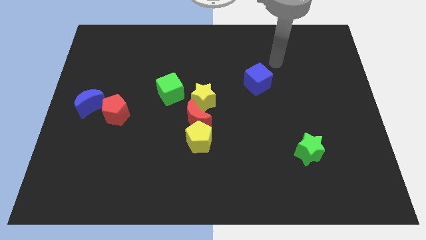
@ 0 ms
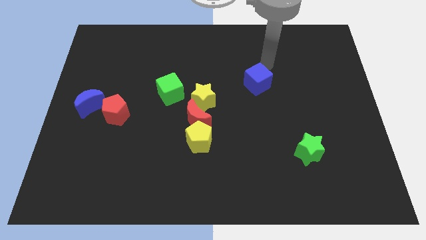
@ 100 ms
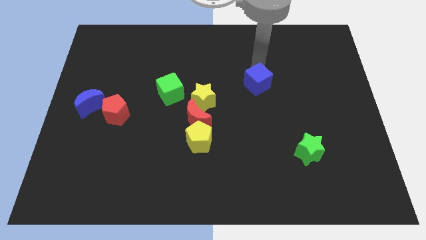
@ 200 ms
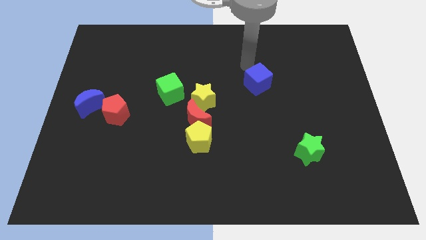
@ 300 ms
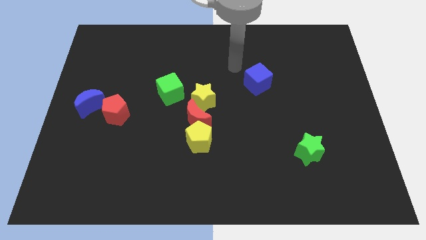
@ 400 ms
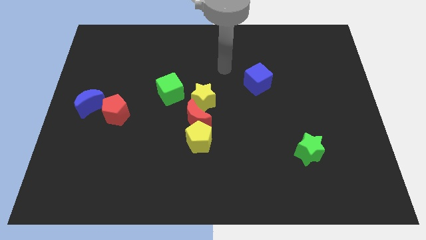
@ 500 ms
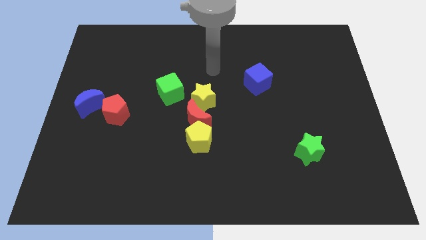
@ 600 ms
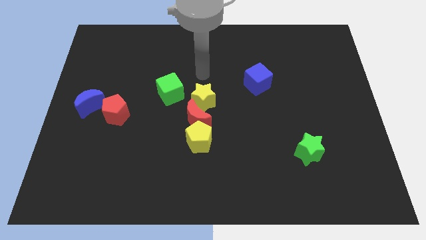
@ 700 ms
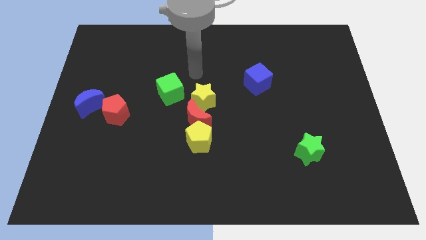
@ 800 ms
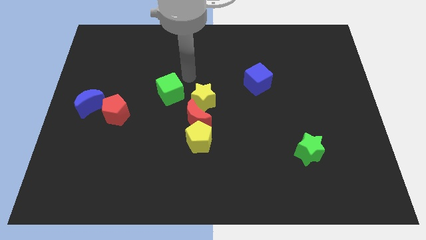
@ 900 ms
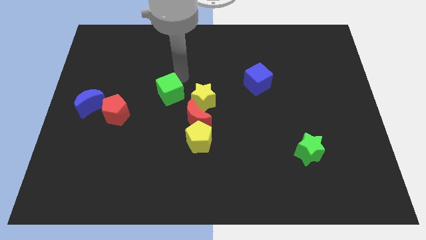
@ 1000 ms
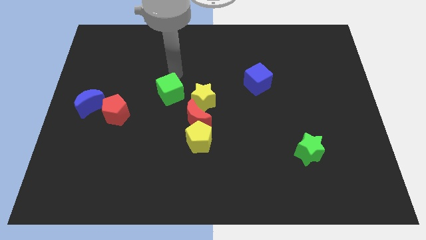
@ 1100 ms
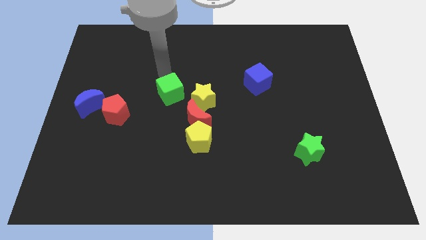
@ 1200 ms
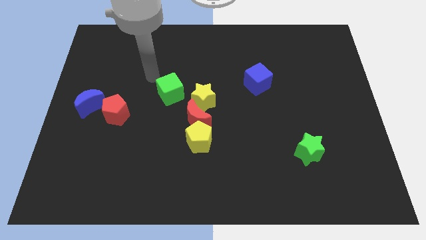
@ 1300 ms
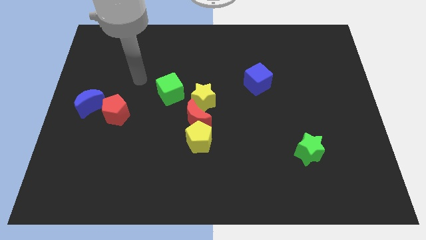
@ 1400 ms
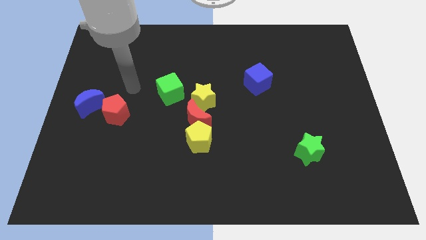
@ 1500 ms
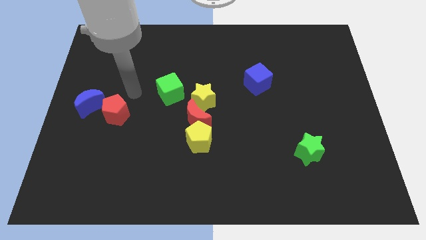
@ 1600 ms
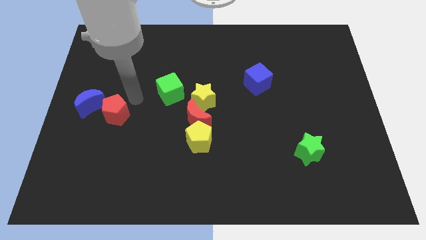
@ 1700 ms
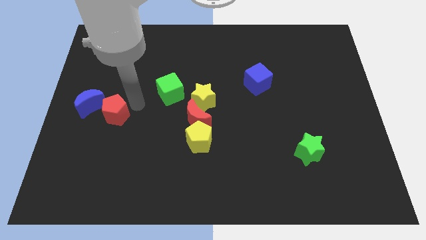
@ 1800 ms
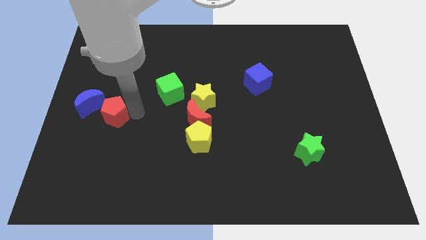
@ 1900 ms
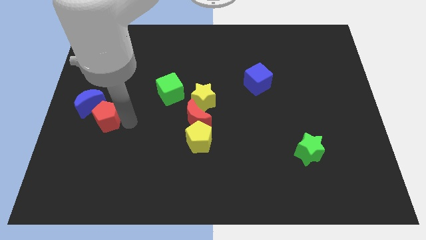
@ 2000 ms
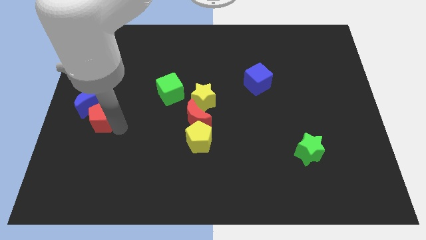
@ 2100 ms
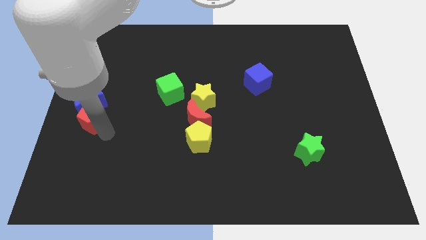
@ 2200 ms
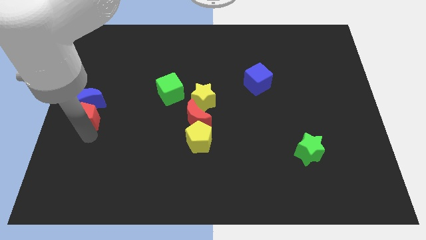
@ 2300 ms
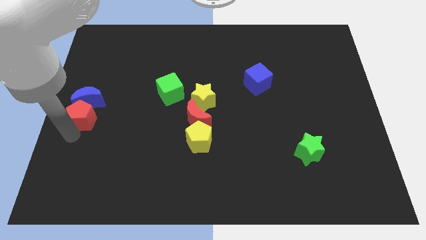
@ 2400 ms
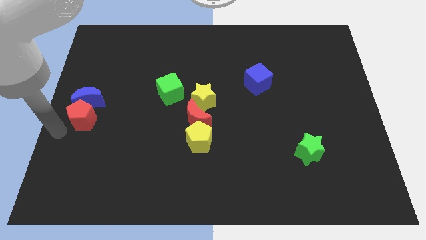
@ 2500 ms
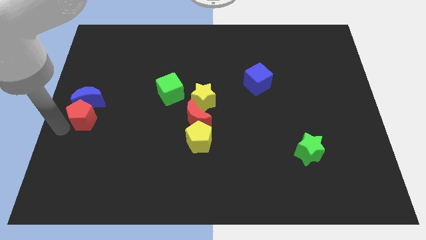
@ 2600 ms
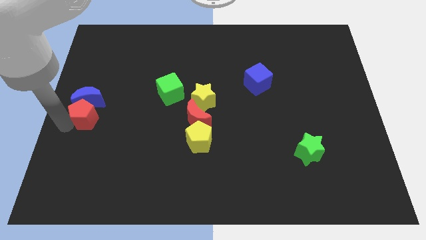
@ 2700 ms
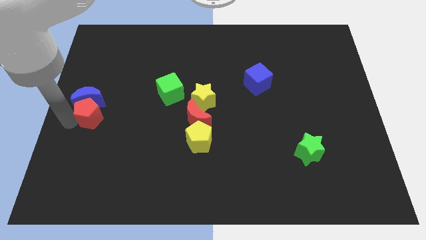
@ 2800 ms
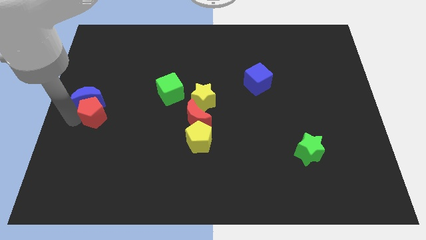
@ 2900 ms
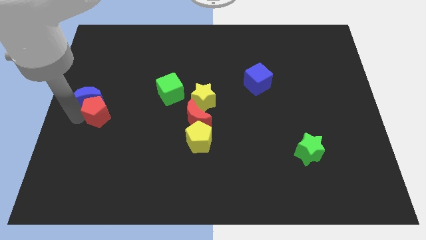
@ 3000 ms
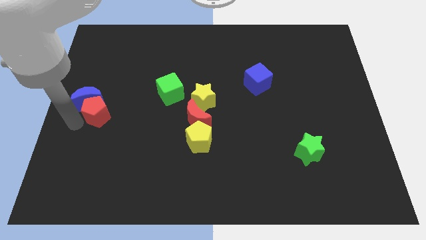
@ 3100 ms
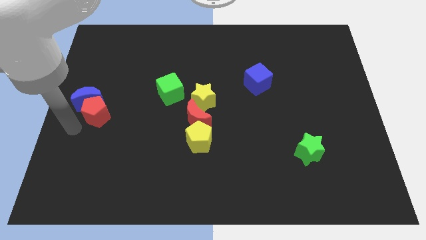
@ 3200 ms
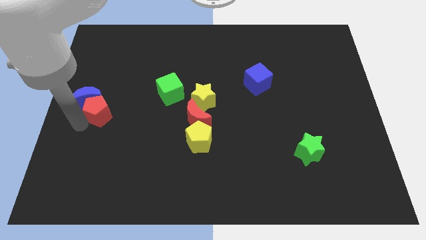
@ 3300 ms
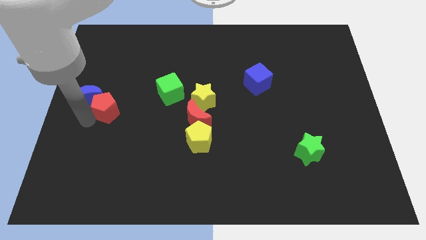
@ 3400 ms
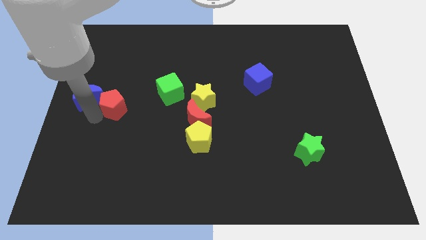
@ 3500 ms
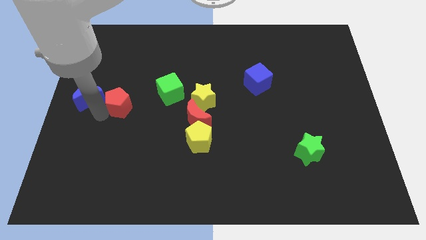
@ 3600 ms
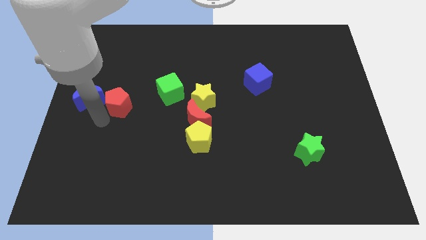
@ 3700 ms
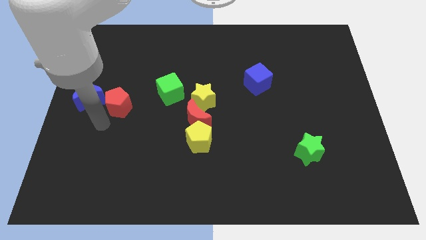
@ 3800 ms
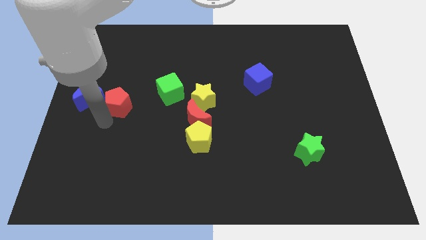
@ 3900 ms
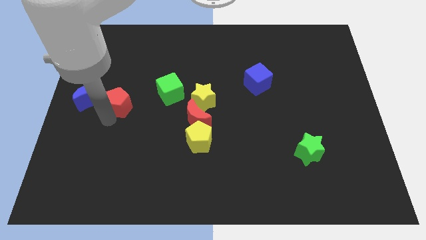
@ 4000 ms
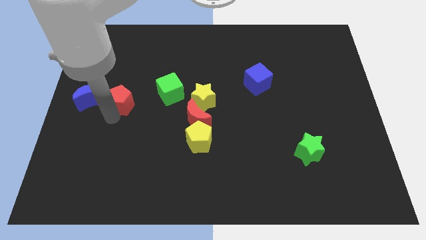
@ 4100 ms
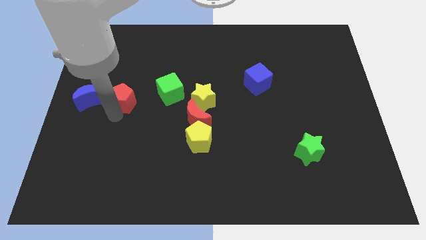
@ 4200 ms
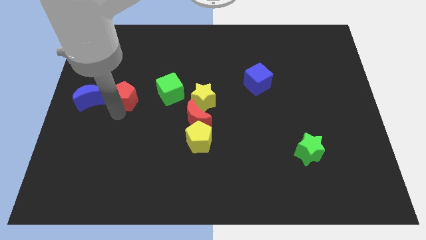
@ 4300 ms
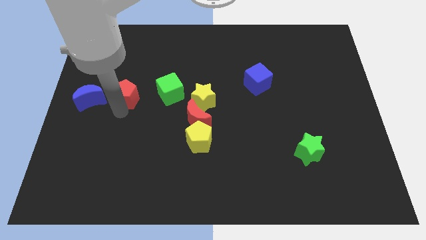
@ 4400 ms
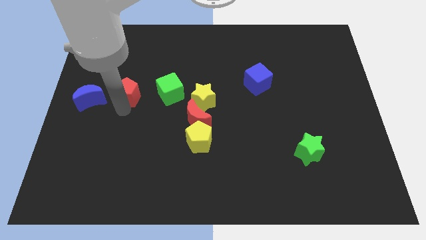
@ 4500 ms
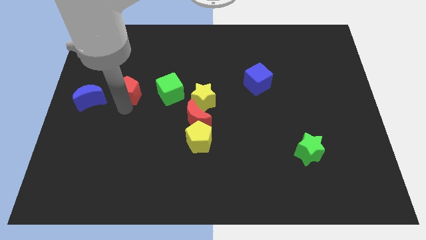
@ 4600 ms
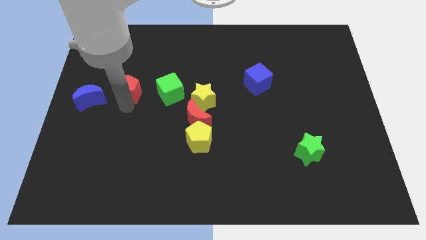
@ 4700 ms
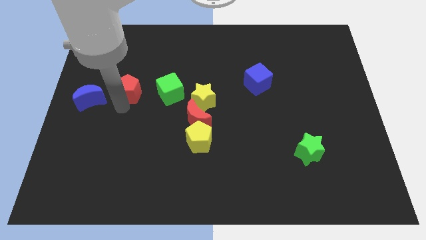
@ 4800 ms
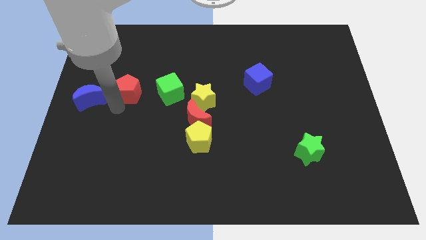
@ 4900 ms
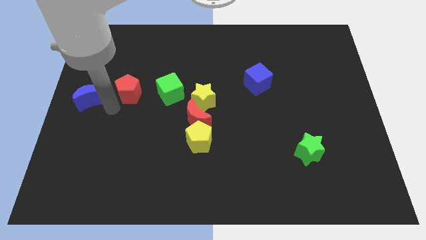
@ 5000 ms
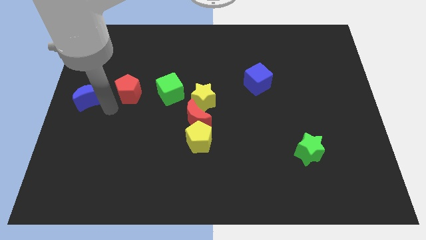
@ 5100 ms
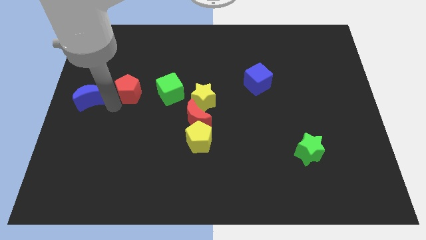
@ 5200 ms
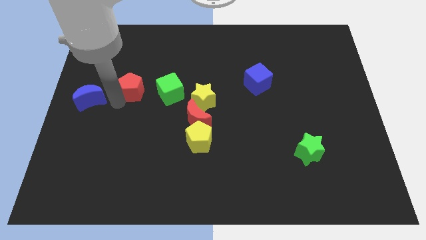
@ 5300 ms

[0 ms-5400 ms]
slide the red pentagon a little up and to the right diagonally

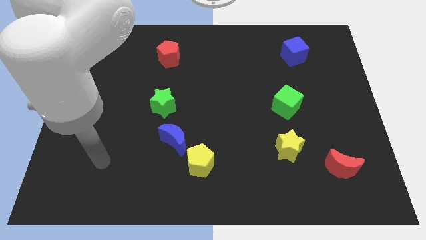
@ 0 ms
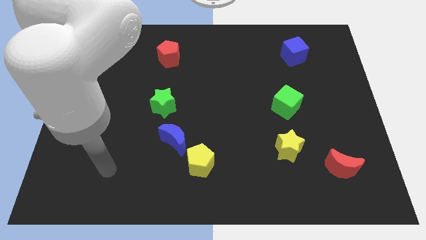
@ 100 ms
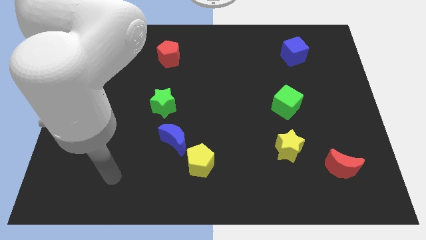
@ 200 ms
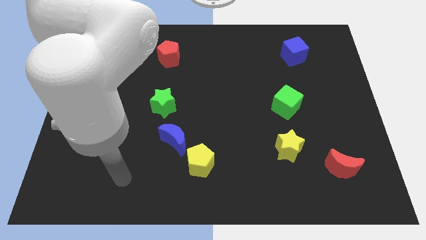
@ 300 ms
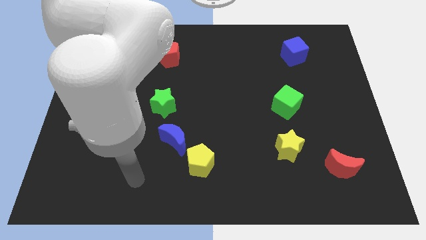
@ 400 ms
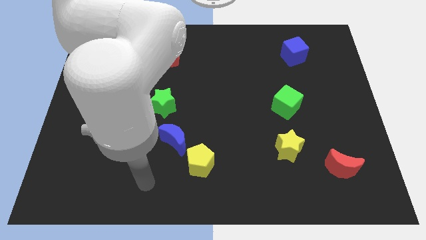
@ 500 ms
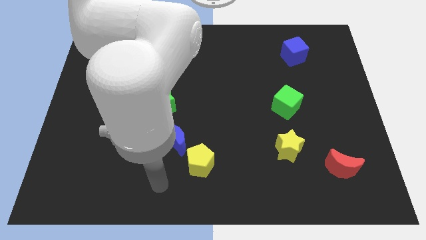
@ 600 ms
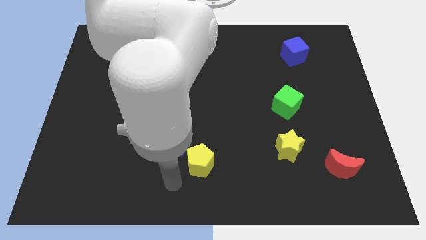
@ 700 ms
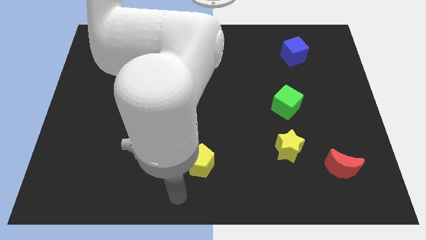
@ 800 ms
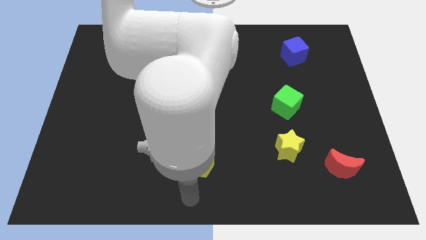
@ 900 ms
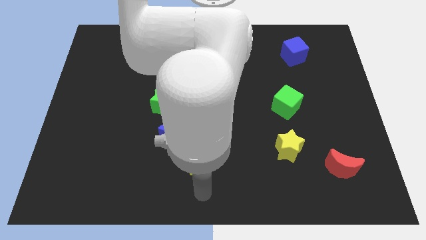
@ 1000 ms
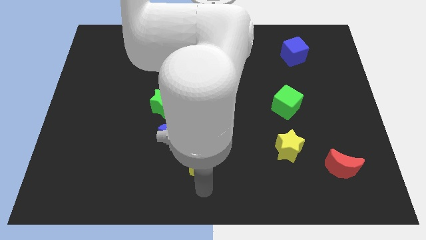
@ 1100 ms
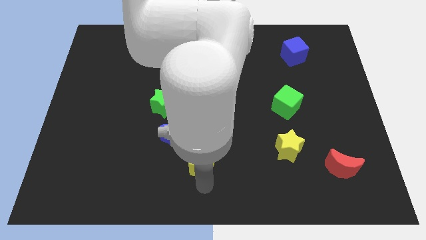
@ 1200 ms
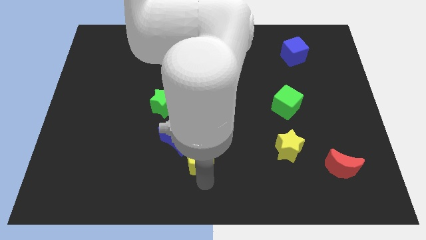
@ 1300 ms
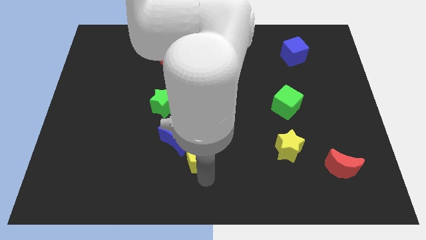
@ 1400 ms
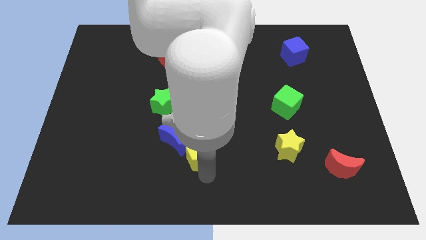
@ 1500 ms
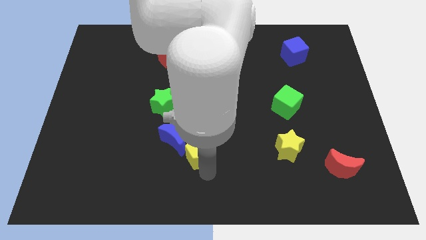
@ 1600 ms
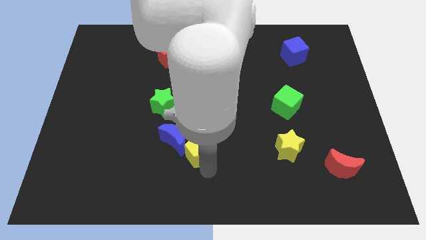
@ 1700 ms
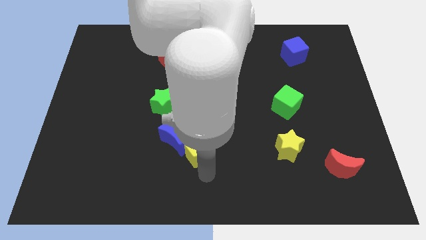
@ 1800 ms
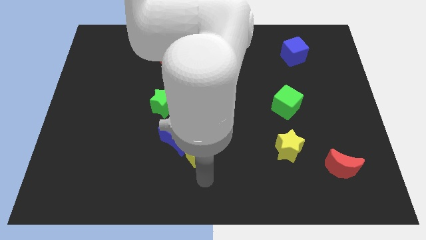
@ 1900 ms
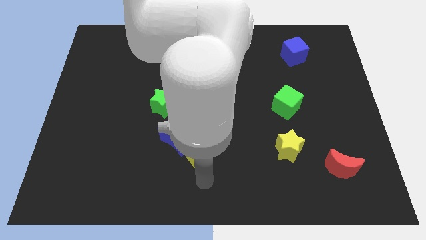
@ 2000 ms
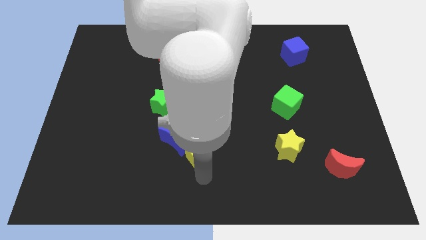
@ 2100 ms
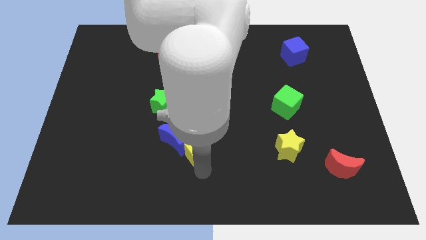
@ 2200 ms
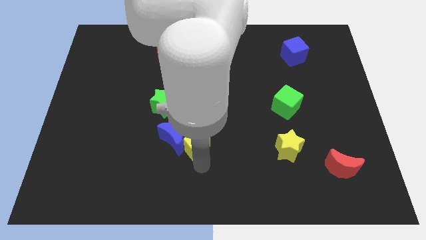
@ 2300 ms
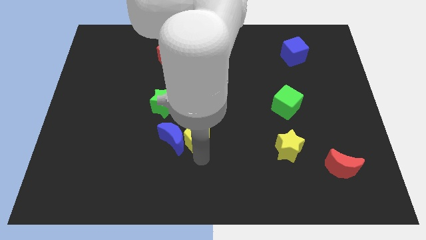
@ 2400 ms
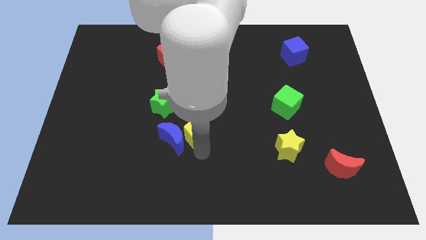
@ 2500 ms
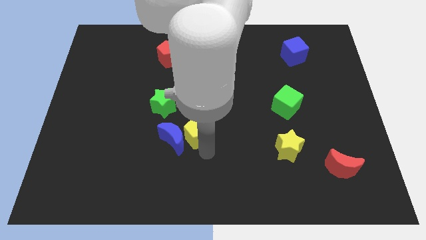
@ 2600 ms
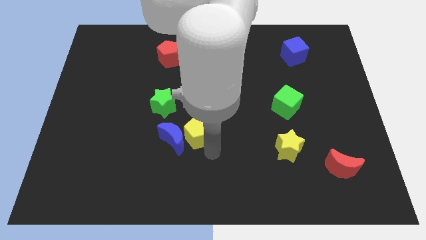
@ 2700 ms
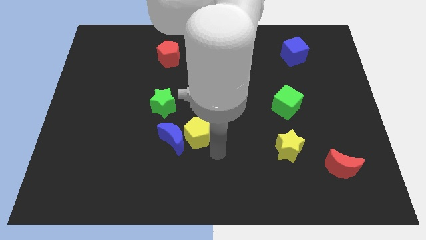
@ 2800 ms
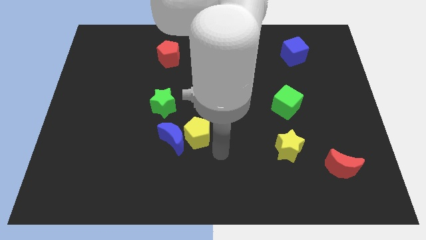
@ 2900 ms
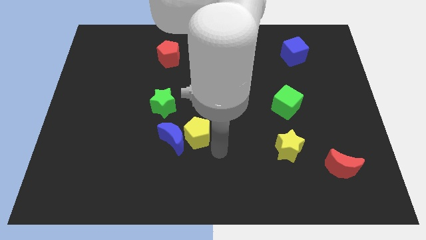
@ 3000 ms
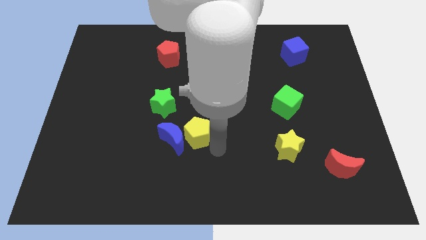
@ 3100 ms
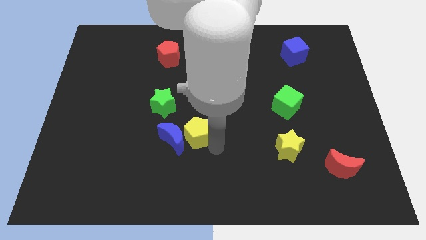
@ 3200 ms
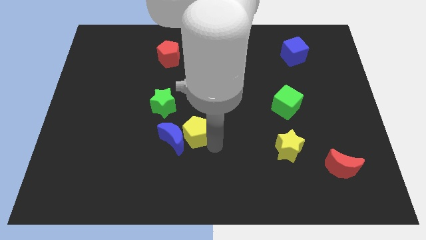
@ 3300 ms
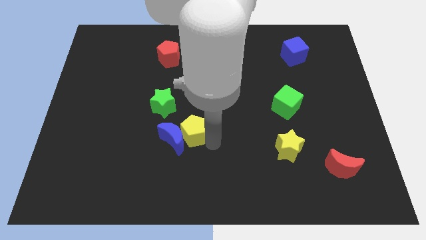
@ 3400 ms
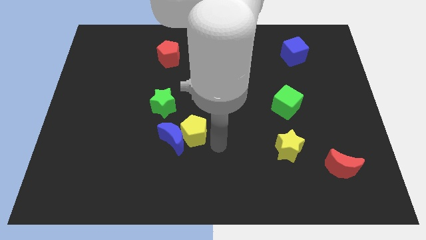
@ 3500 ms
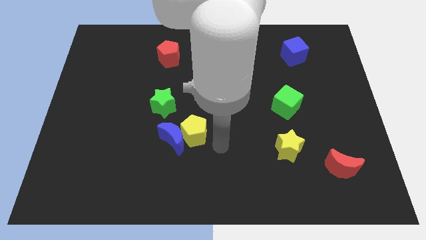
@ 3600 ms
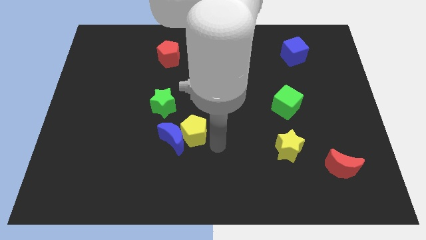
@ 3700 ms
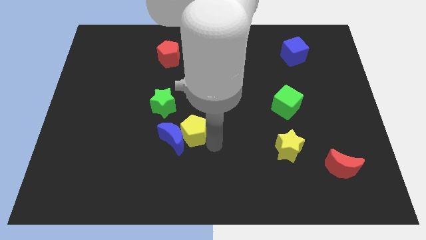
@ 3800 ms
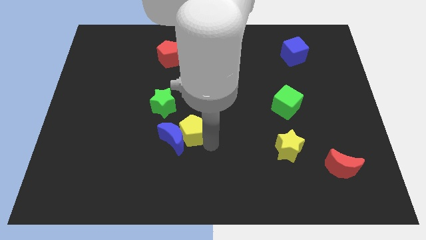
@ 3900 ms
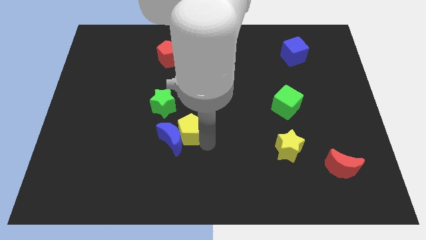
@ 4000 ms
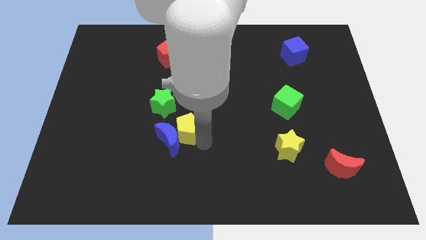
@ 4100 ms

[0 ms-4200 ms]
slightly move the yellow pentagon upwards and left diagonally
